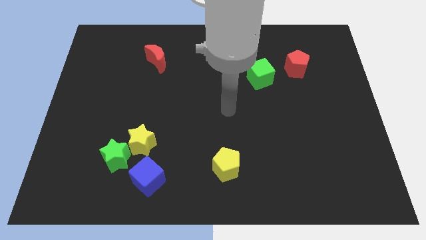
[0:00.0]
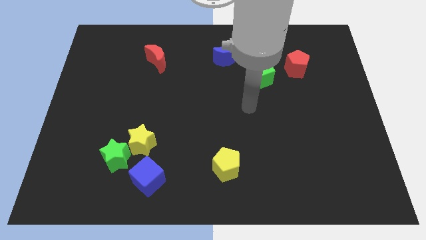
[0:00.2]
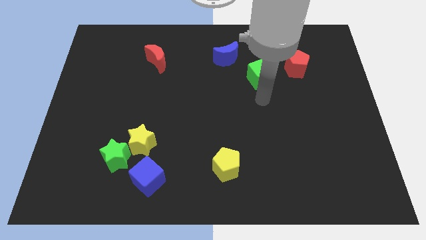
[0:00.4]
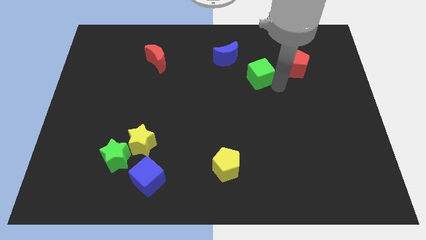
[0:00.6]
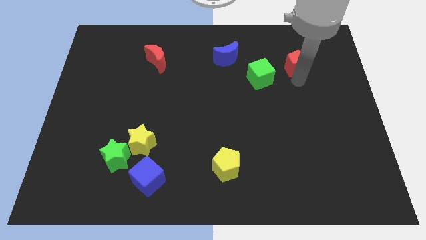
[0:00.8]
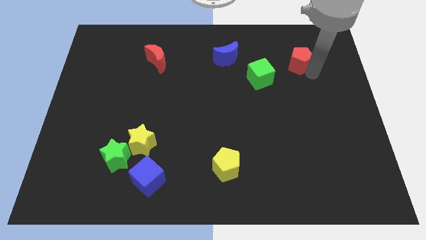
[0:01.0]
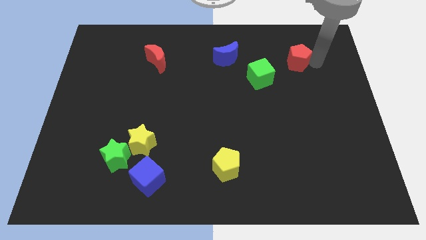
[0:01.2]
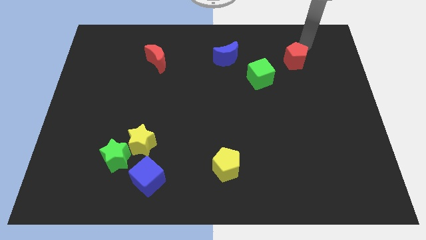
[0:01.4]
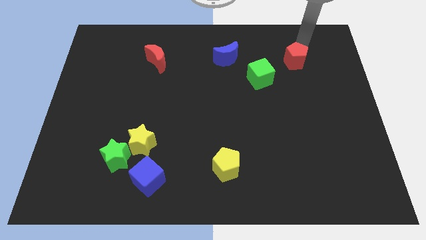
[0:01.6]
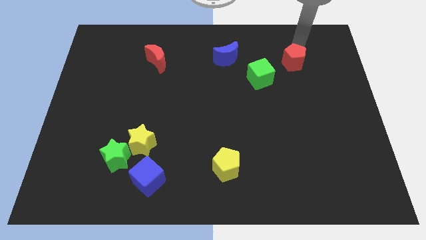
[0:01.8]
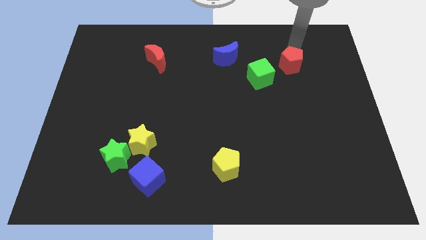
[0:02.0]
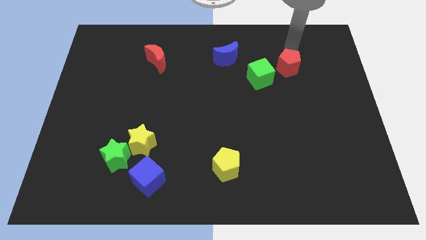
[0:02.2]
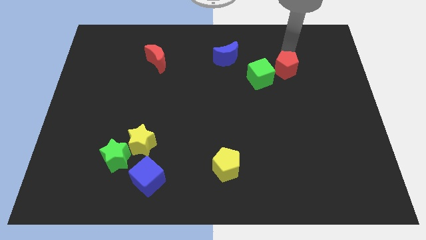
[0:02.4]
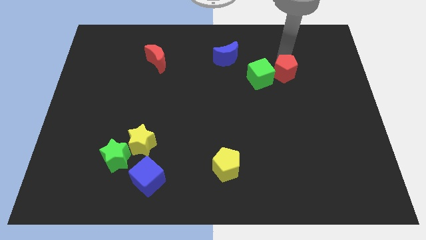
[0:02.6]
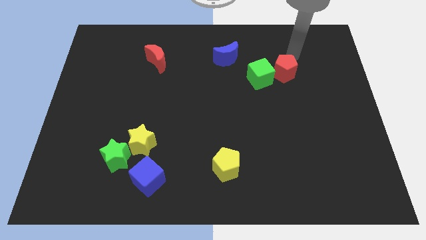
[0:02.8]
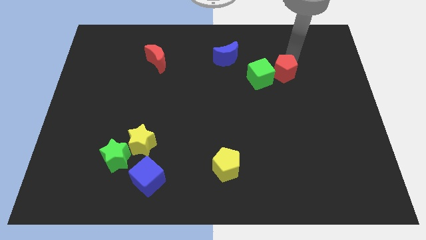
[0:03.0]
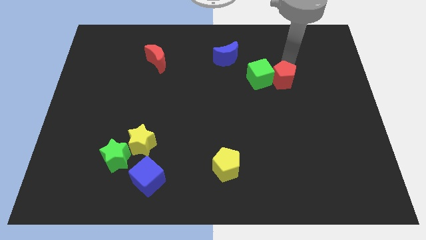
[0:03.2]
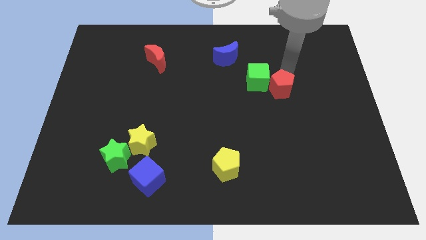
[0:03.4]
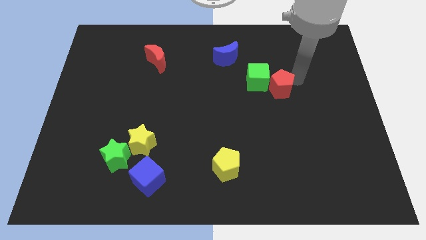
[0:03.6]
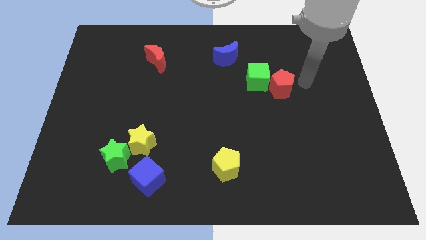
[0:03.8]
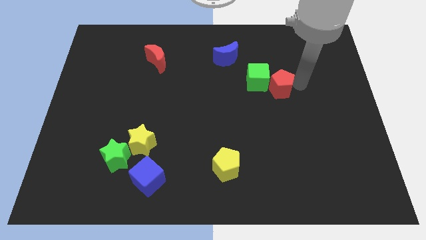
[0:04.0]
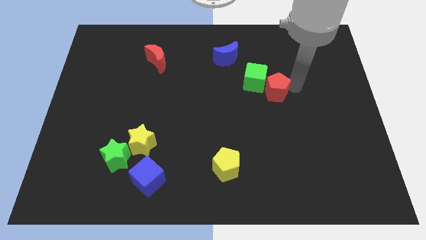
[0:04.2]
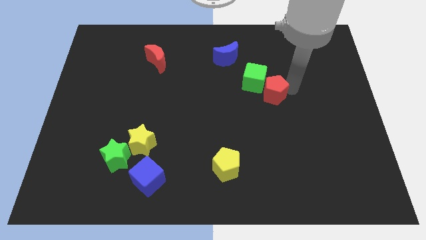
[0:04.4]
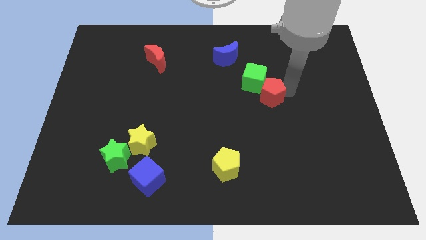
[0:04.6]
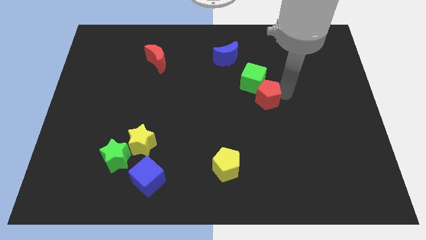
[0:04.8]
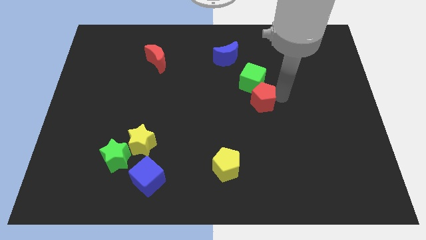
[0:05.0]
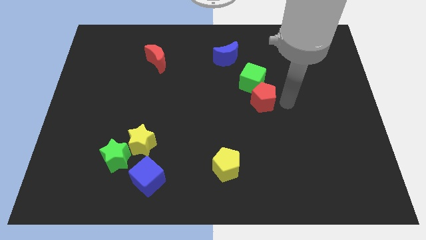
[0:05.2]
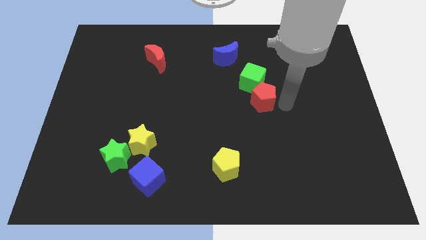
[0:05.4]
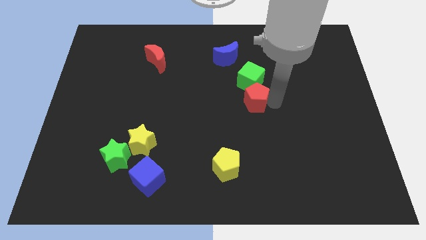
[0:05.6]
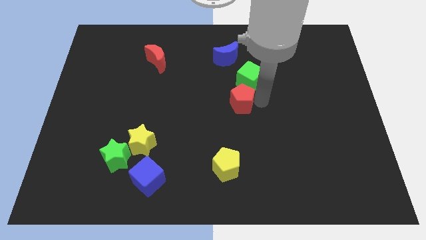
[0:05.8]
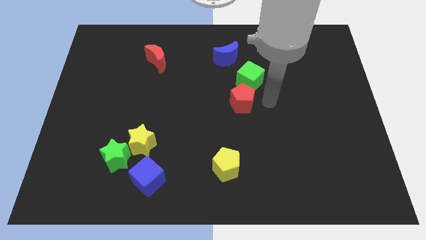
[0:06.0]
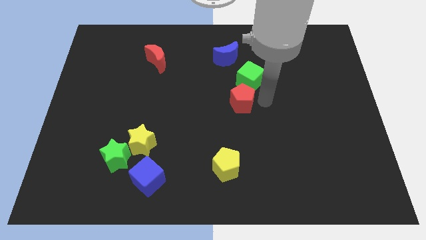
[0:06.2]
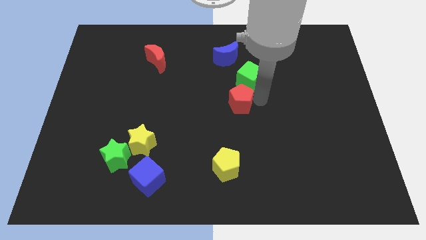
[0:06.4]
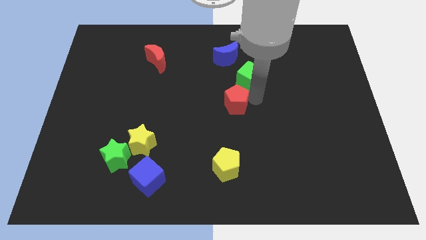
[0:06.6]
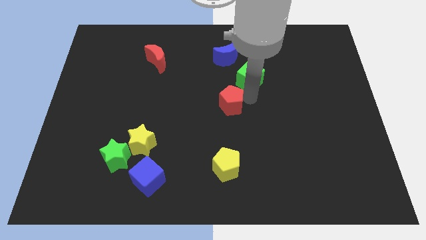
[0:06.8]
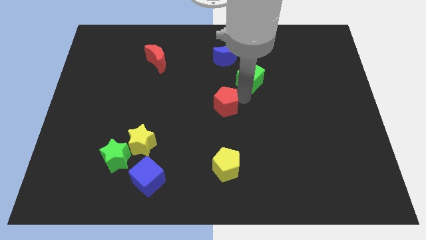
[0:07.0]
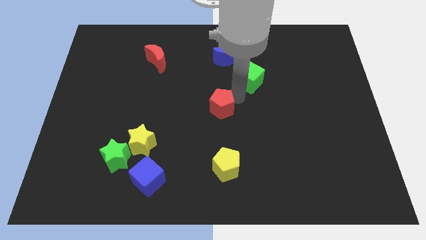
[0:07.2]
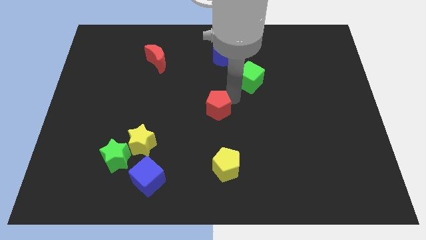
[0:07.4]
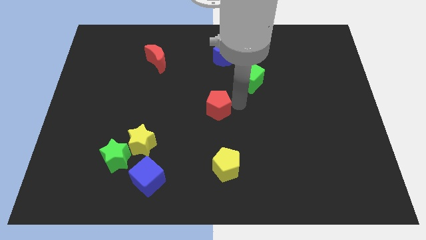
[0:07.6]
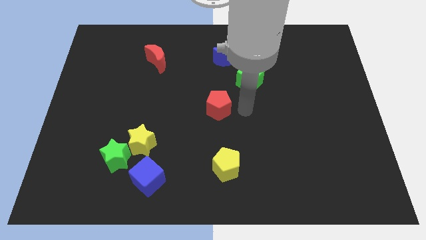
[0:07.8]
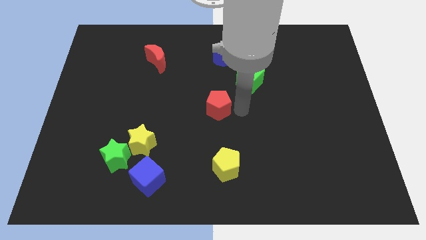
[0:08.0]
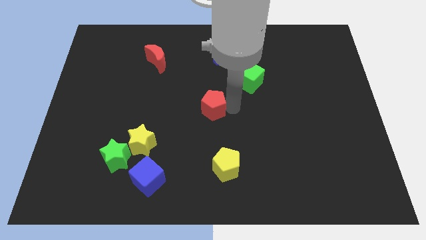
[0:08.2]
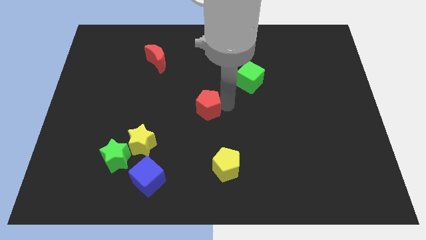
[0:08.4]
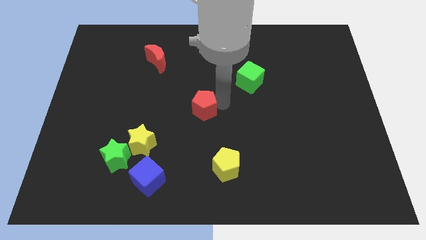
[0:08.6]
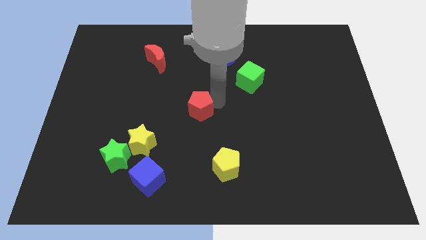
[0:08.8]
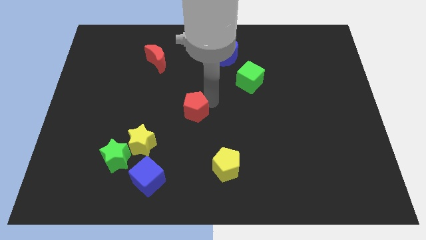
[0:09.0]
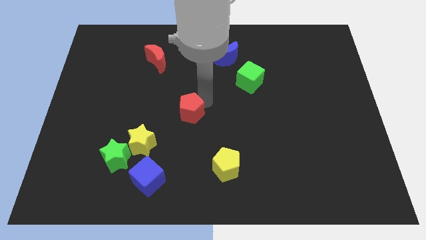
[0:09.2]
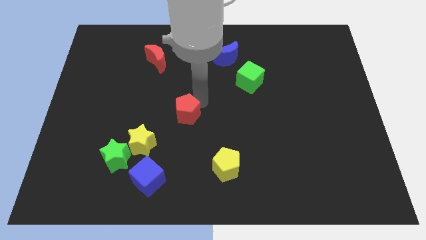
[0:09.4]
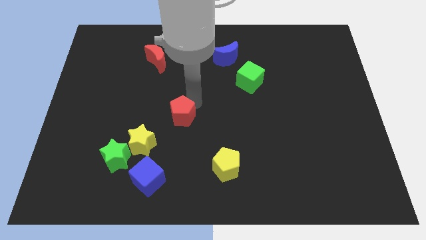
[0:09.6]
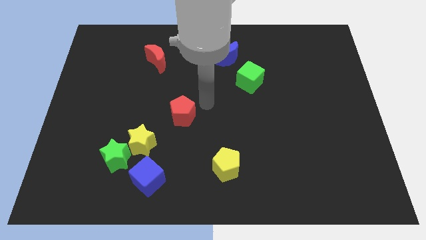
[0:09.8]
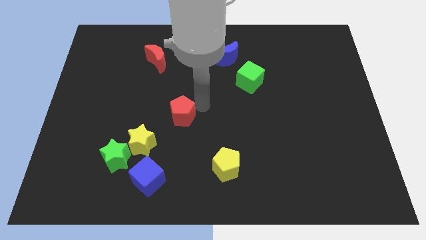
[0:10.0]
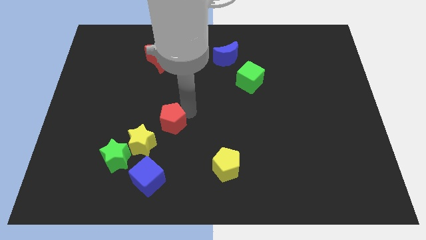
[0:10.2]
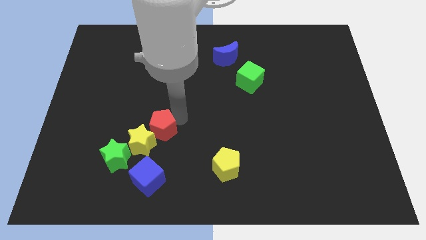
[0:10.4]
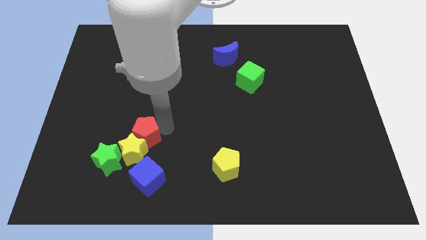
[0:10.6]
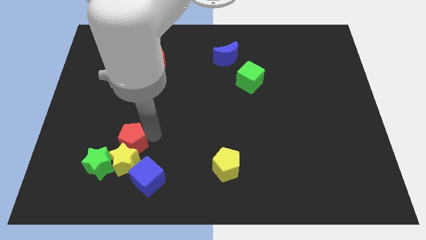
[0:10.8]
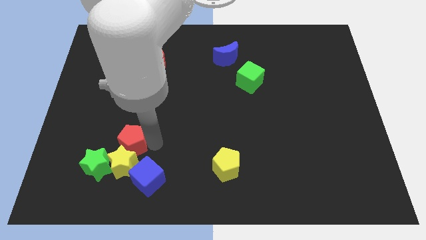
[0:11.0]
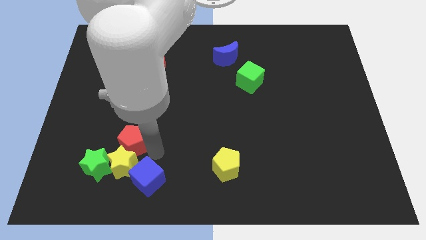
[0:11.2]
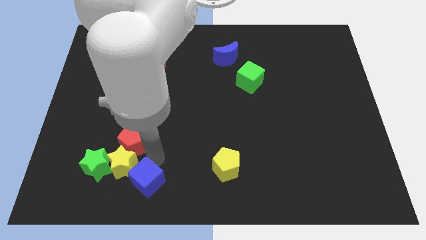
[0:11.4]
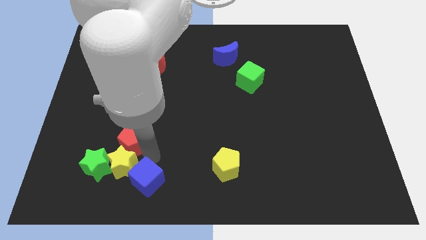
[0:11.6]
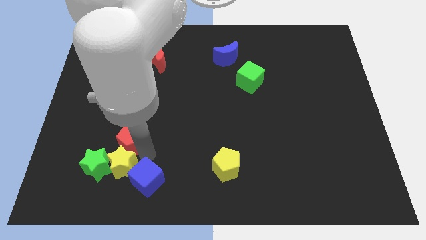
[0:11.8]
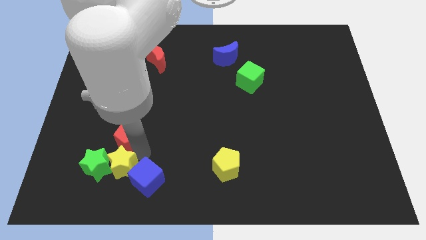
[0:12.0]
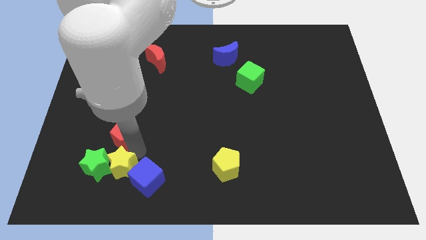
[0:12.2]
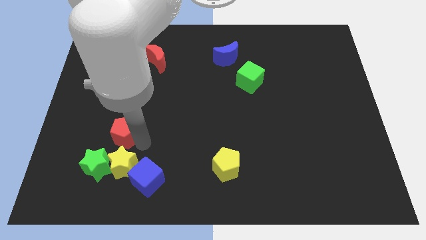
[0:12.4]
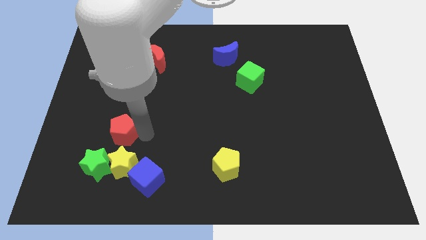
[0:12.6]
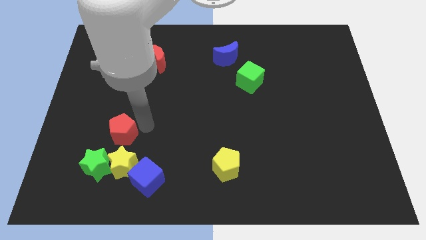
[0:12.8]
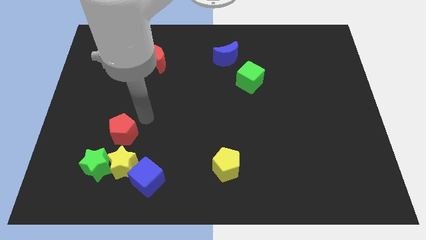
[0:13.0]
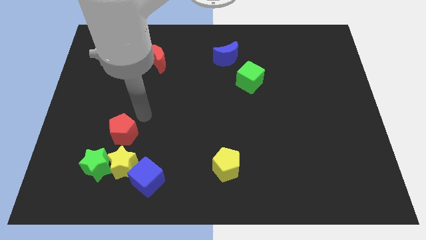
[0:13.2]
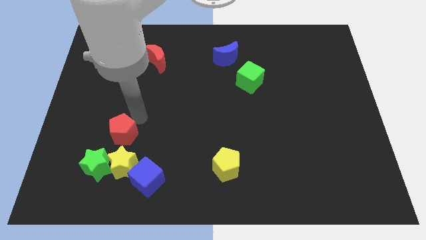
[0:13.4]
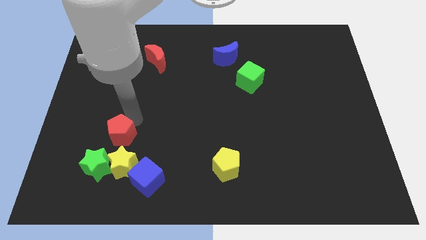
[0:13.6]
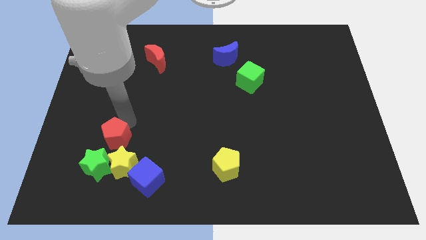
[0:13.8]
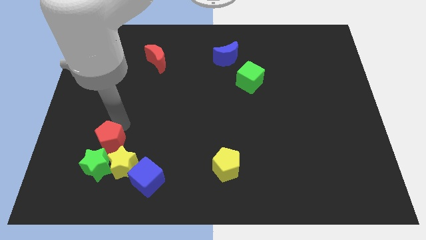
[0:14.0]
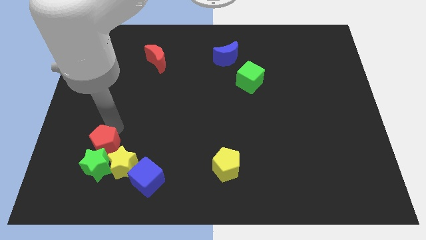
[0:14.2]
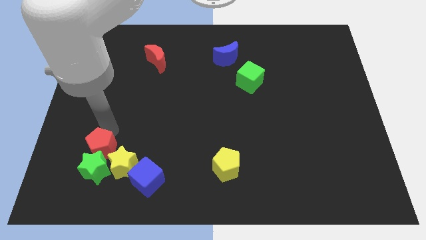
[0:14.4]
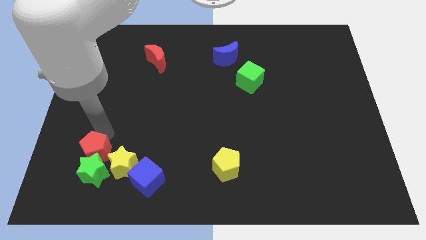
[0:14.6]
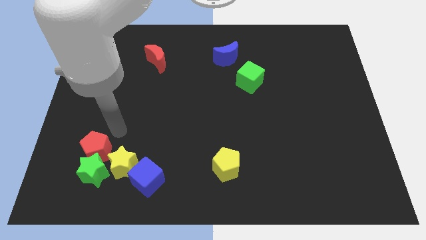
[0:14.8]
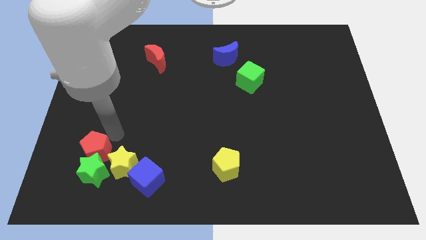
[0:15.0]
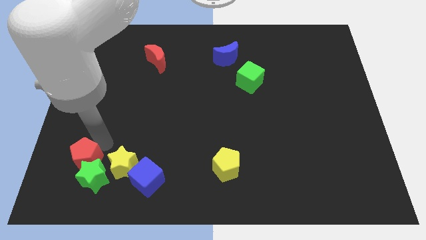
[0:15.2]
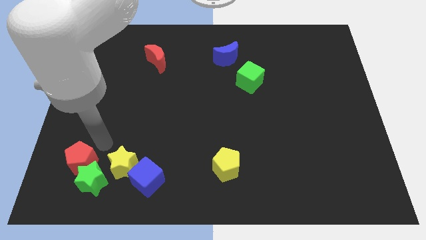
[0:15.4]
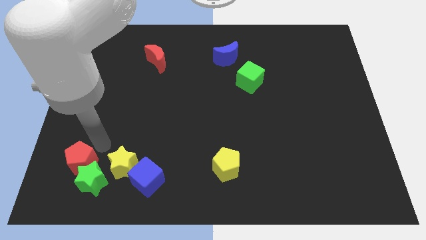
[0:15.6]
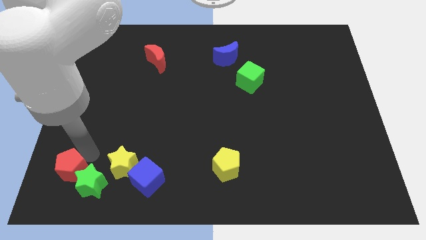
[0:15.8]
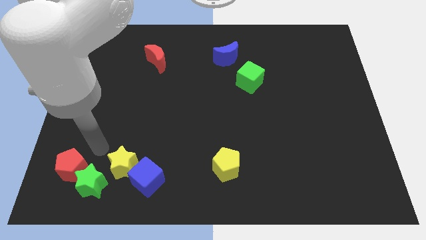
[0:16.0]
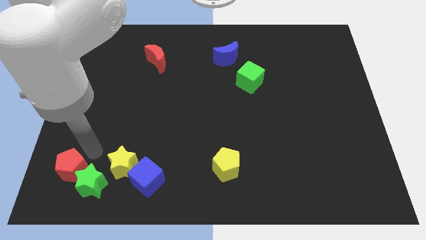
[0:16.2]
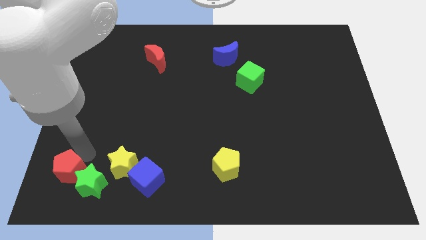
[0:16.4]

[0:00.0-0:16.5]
push the red pentagon to the lower left corner
